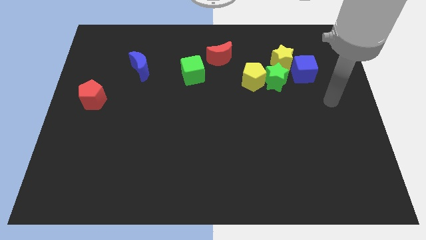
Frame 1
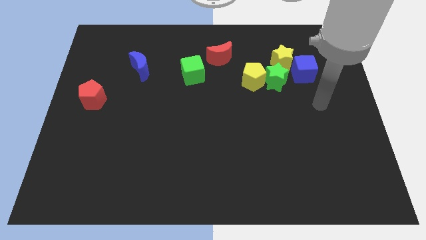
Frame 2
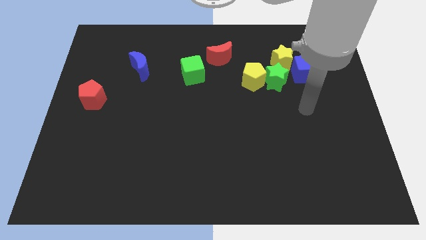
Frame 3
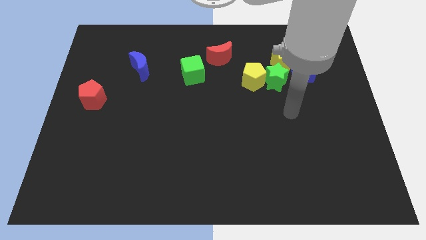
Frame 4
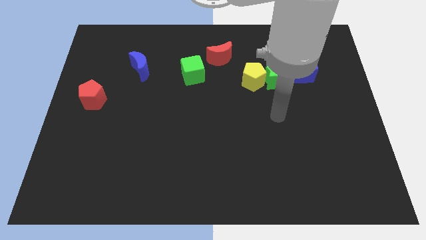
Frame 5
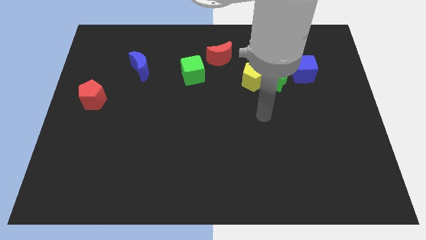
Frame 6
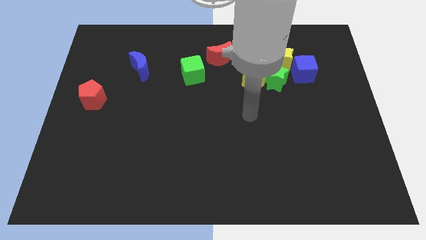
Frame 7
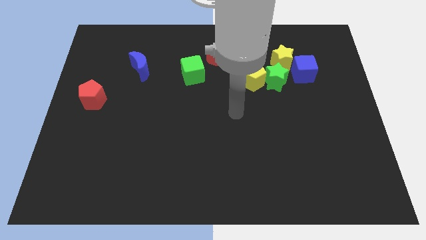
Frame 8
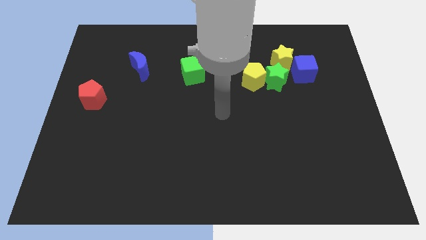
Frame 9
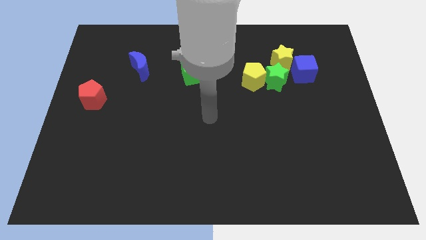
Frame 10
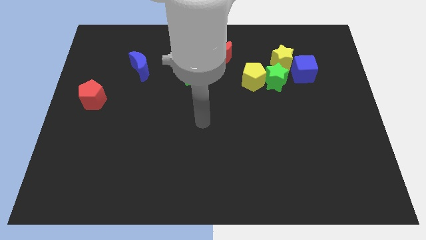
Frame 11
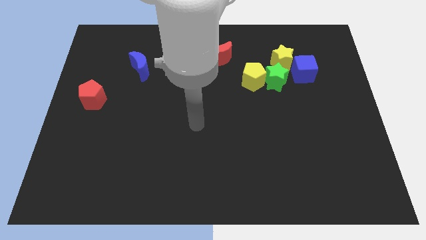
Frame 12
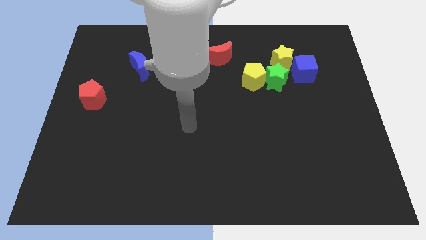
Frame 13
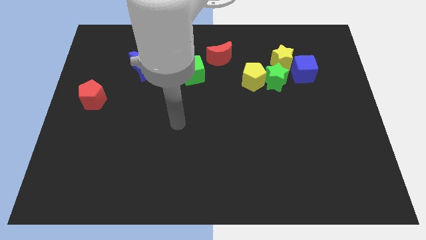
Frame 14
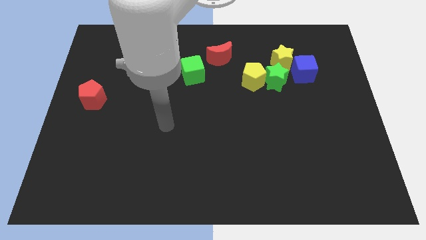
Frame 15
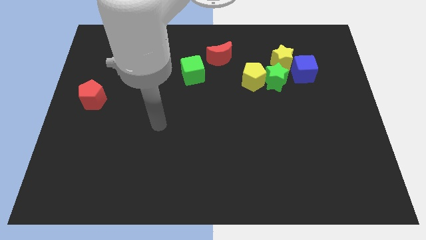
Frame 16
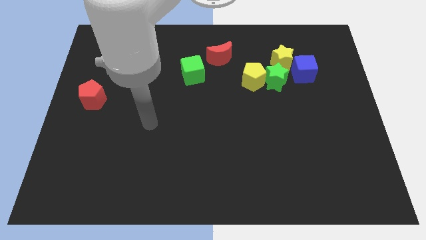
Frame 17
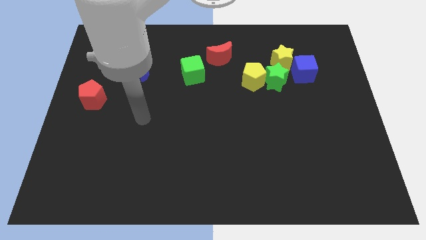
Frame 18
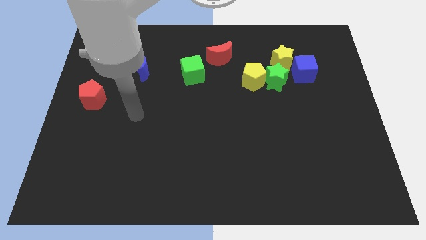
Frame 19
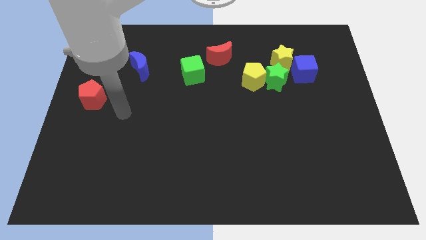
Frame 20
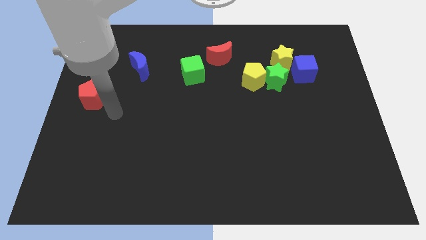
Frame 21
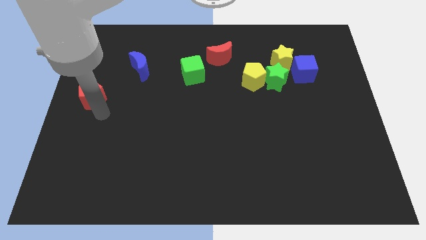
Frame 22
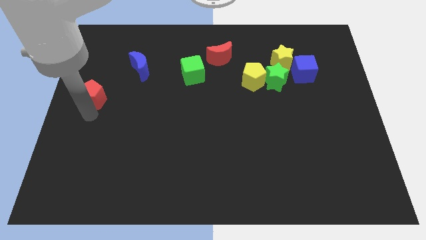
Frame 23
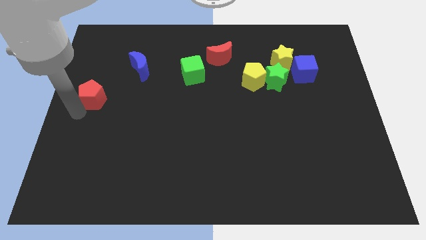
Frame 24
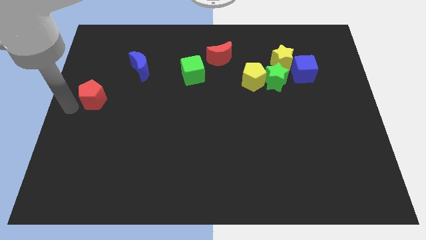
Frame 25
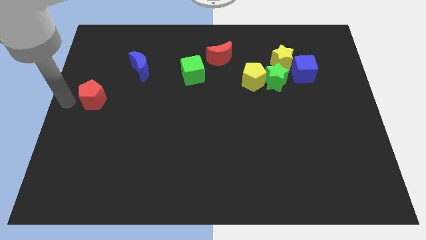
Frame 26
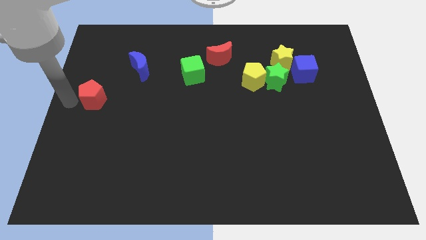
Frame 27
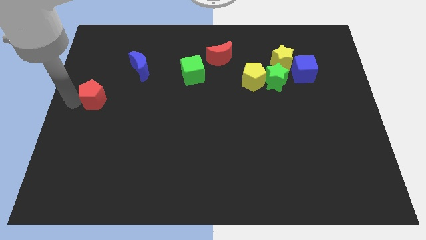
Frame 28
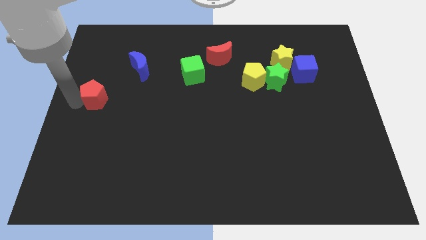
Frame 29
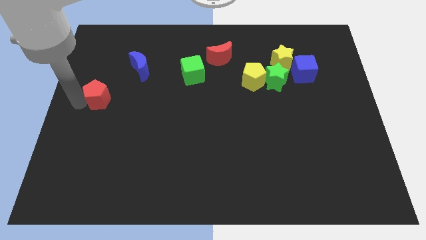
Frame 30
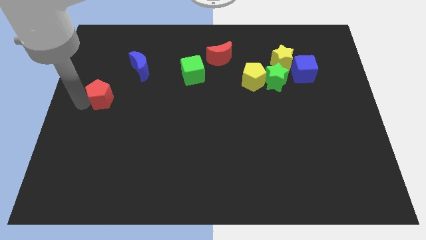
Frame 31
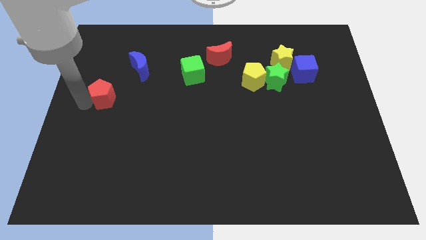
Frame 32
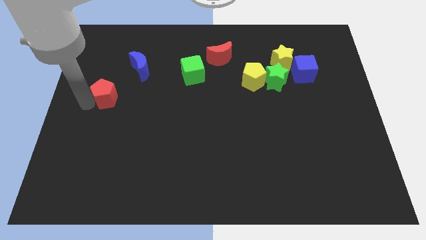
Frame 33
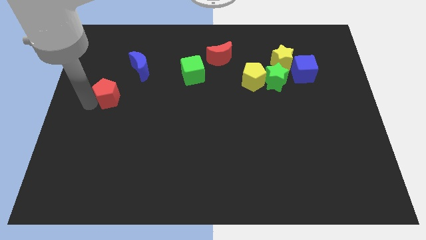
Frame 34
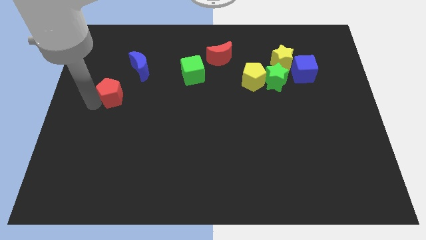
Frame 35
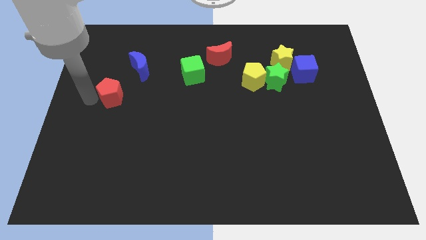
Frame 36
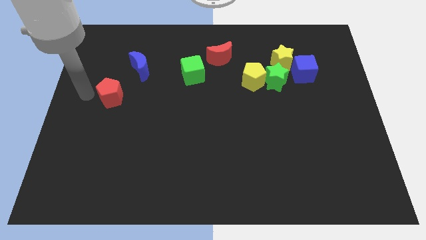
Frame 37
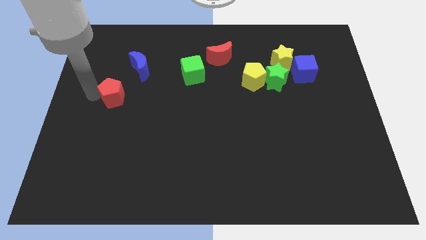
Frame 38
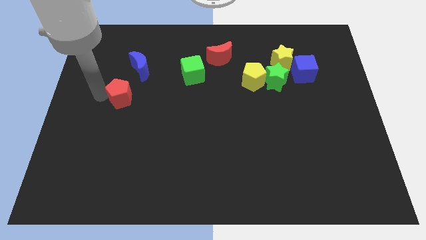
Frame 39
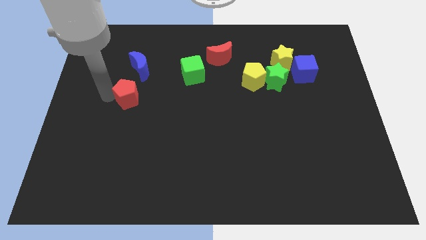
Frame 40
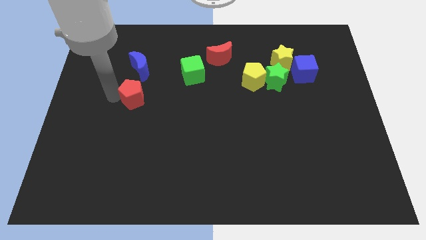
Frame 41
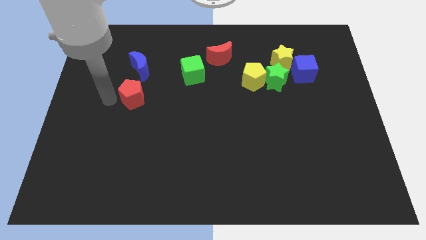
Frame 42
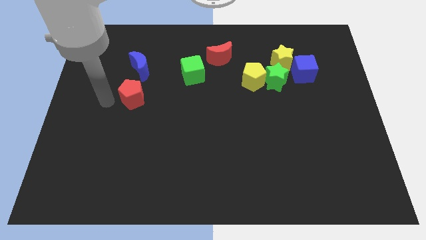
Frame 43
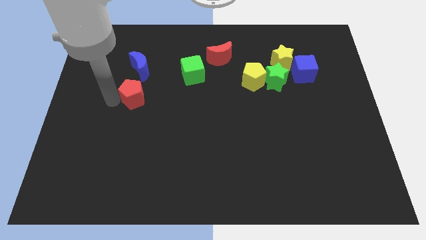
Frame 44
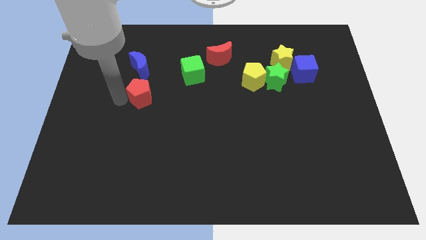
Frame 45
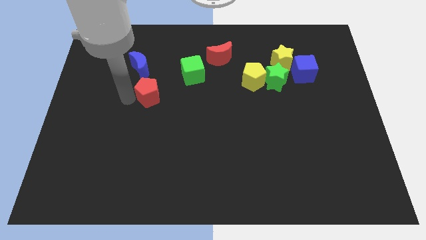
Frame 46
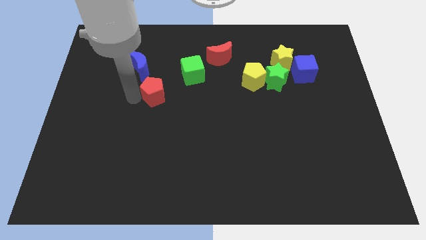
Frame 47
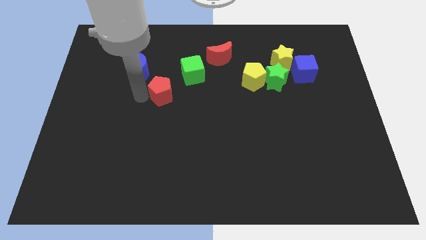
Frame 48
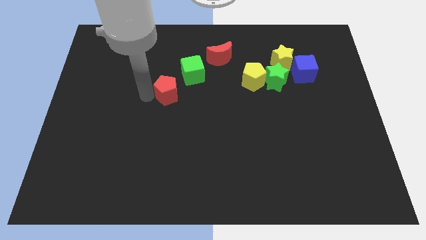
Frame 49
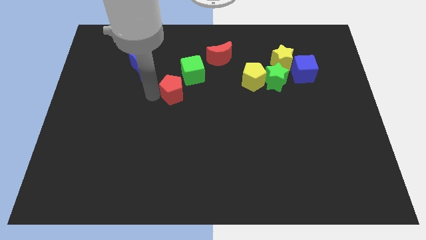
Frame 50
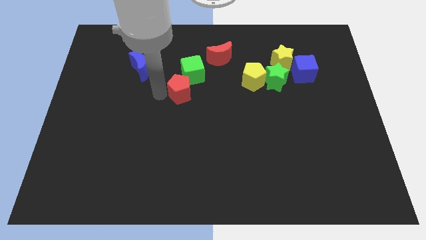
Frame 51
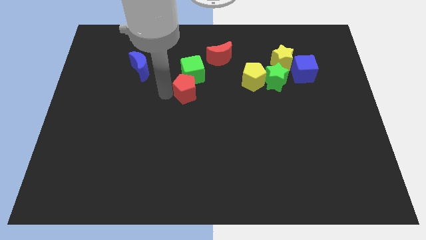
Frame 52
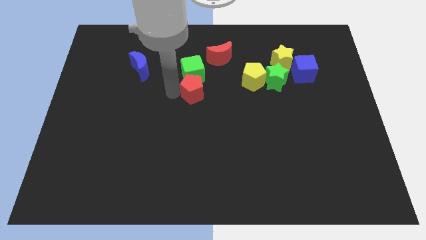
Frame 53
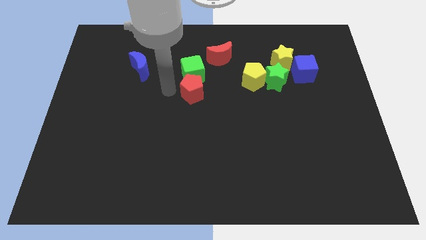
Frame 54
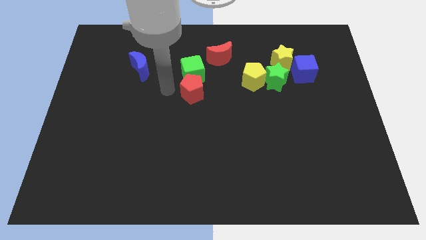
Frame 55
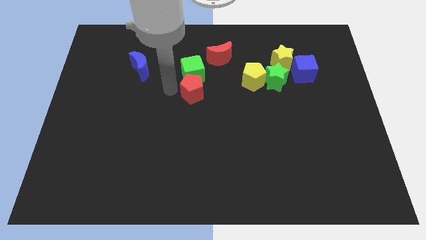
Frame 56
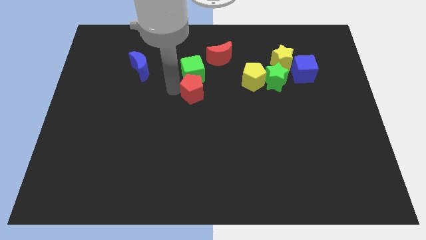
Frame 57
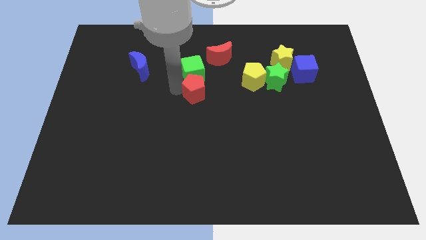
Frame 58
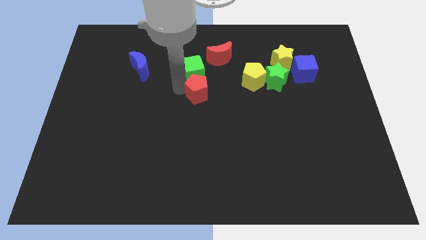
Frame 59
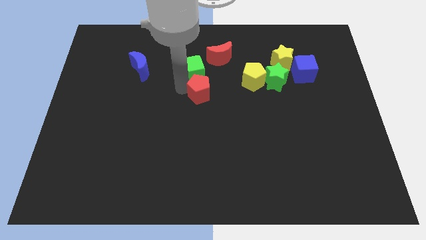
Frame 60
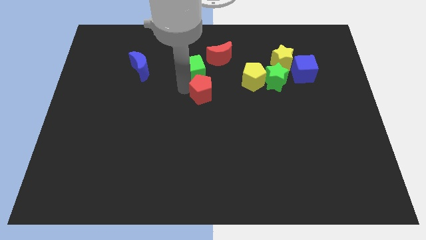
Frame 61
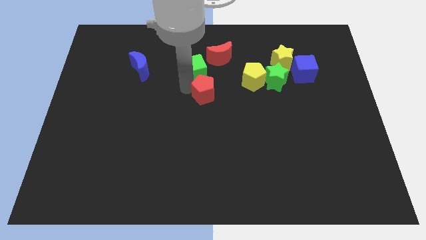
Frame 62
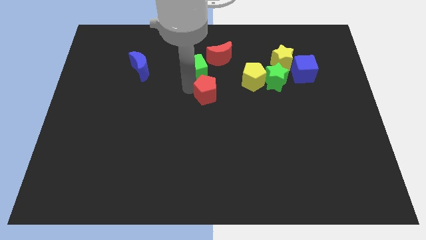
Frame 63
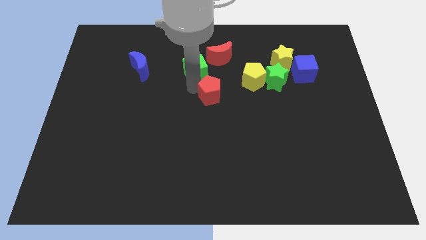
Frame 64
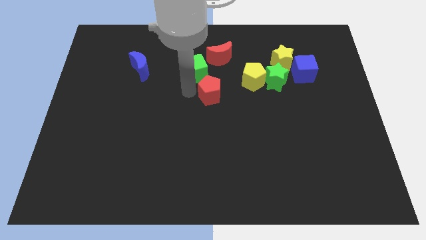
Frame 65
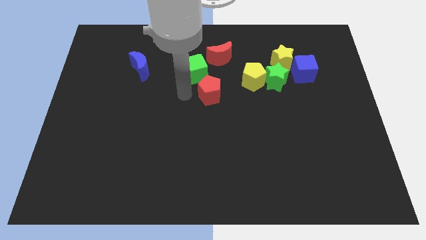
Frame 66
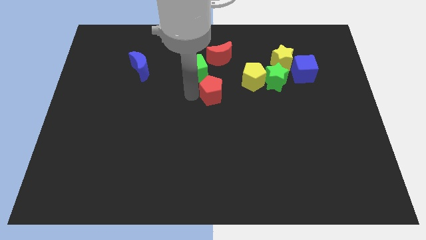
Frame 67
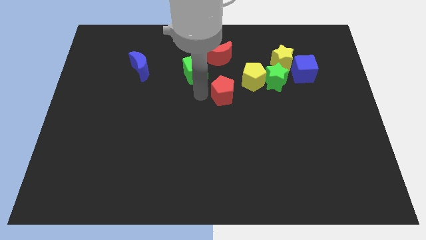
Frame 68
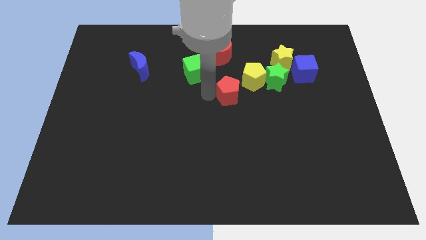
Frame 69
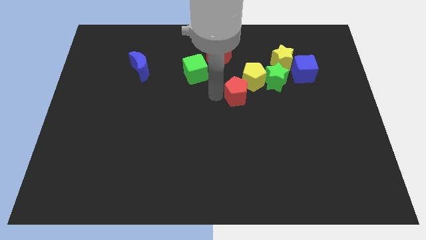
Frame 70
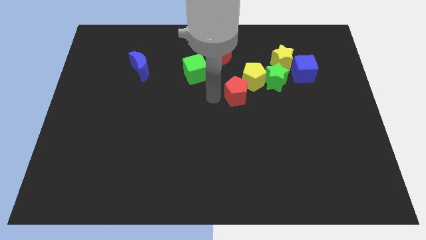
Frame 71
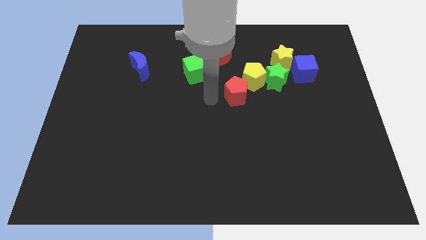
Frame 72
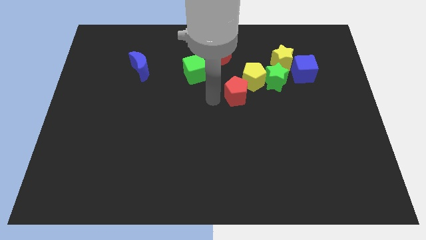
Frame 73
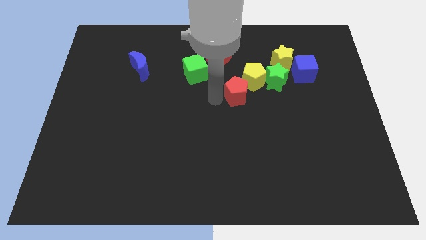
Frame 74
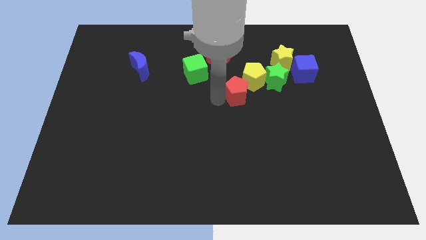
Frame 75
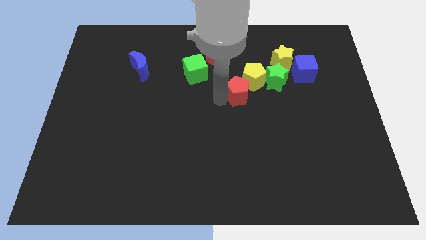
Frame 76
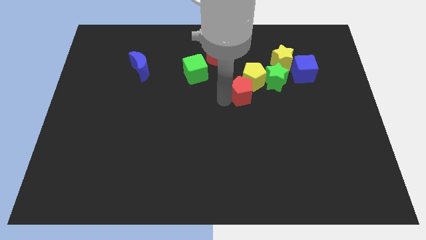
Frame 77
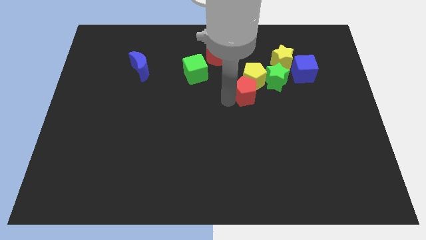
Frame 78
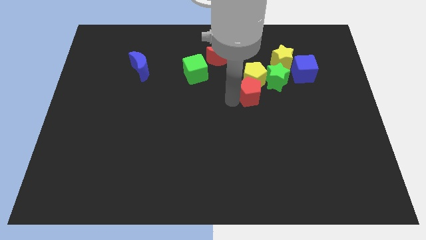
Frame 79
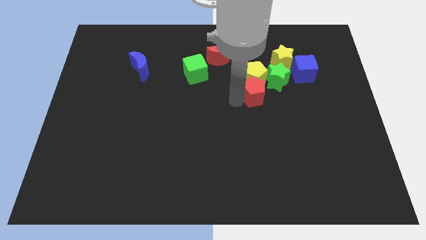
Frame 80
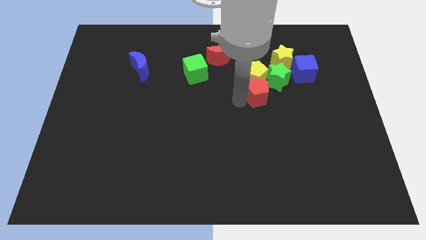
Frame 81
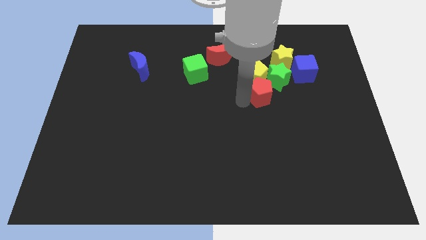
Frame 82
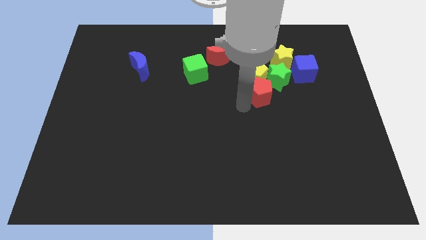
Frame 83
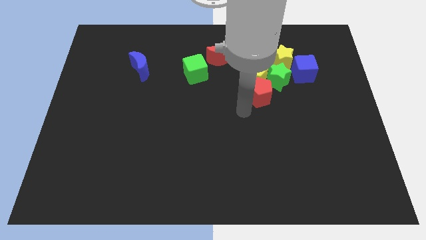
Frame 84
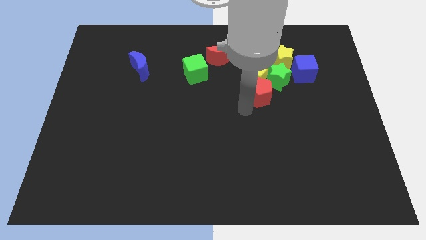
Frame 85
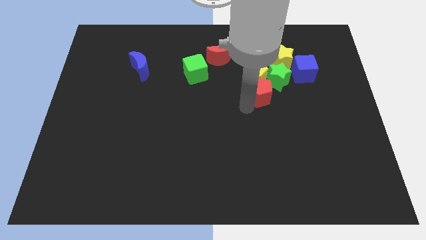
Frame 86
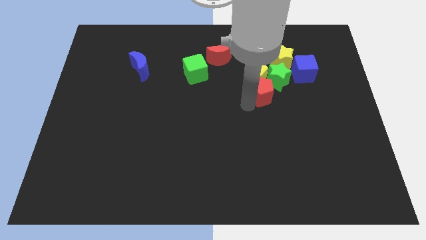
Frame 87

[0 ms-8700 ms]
slide the red pentagon towards the green star
